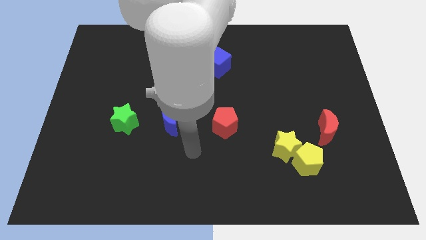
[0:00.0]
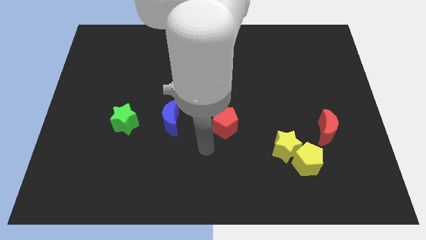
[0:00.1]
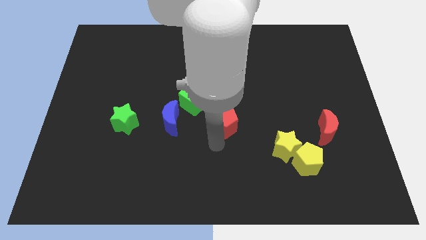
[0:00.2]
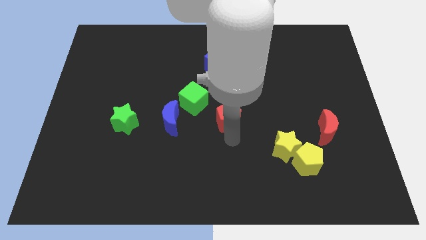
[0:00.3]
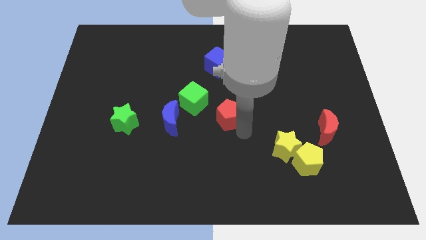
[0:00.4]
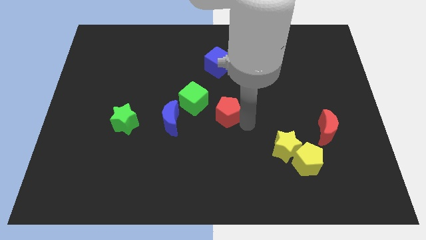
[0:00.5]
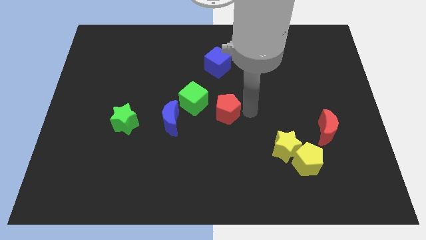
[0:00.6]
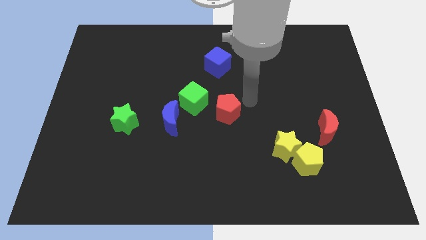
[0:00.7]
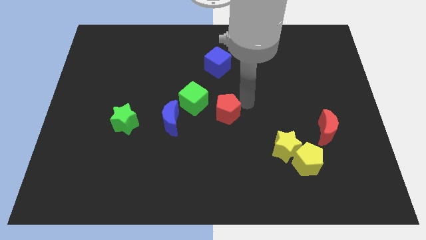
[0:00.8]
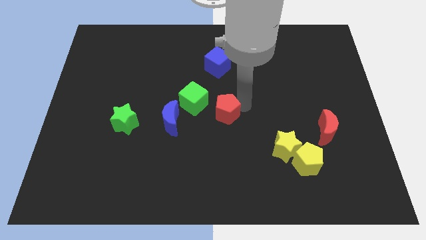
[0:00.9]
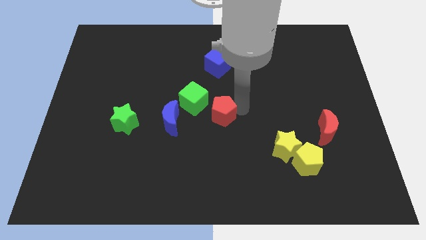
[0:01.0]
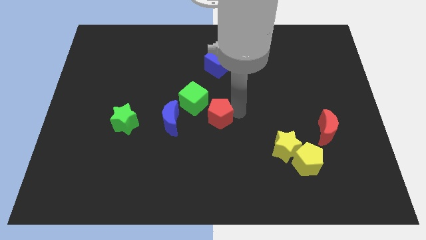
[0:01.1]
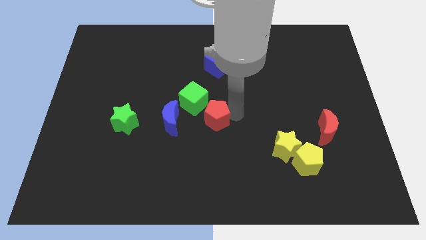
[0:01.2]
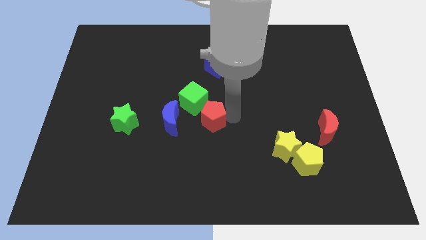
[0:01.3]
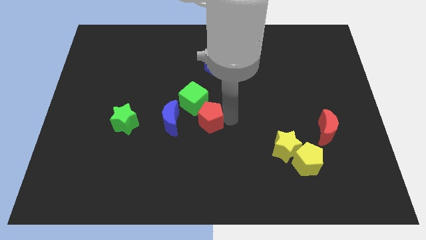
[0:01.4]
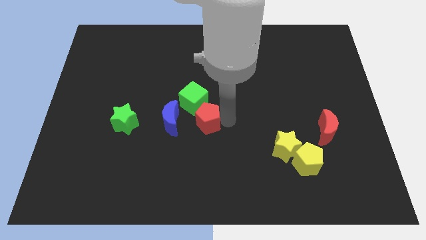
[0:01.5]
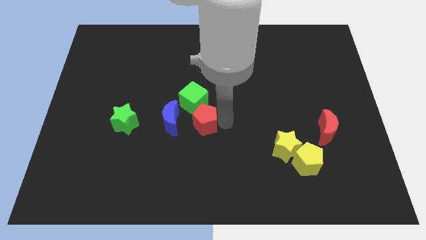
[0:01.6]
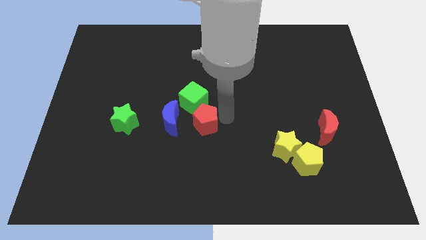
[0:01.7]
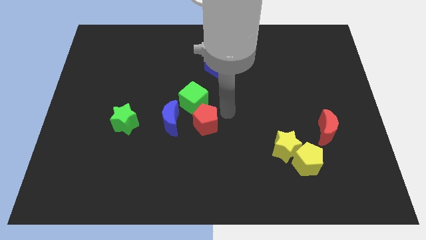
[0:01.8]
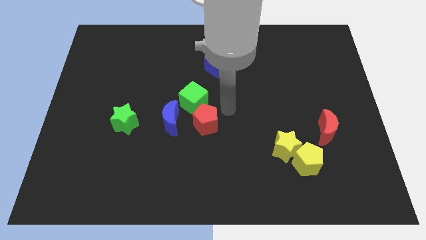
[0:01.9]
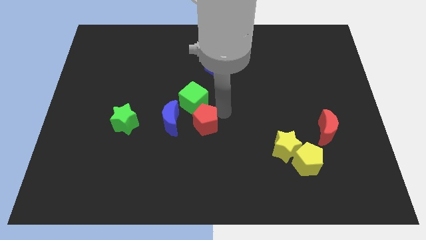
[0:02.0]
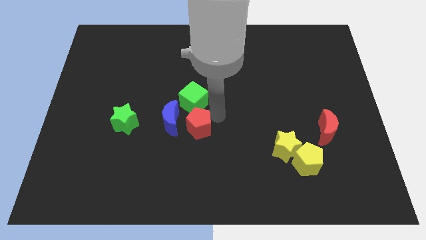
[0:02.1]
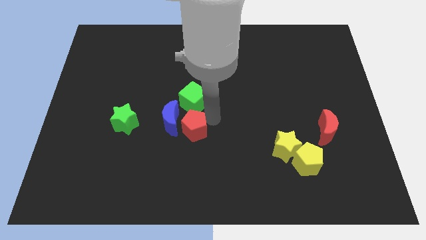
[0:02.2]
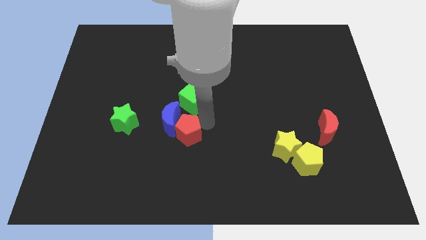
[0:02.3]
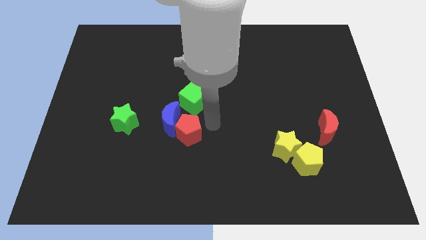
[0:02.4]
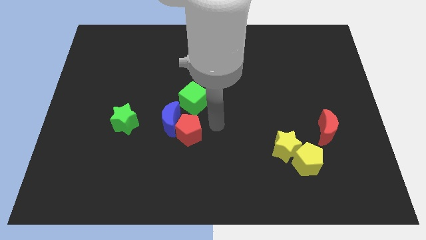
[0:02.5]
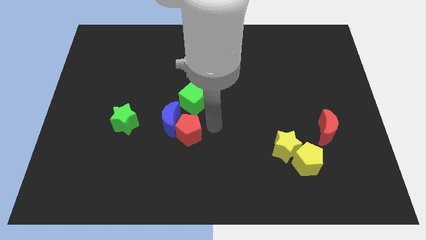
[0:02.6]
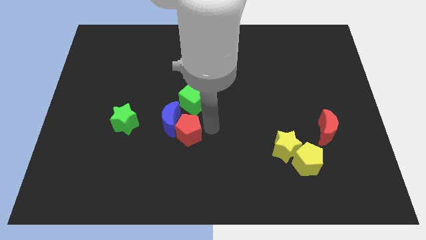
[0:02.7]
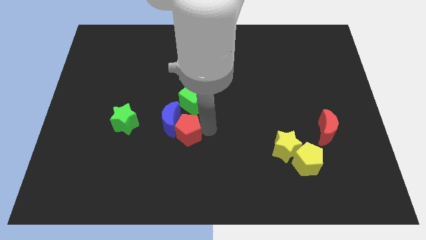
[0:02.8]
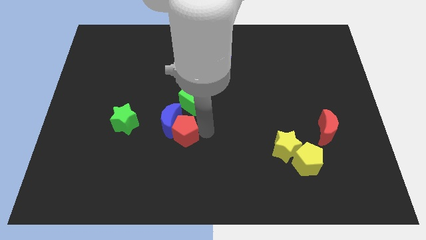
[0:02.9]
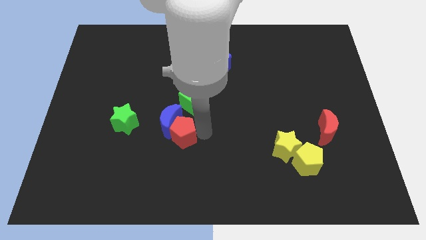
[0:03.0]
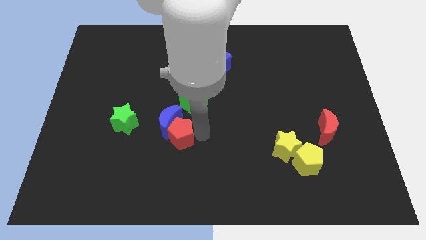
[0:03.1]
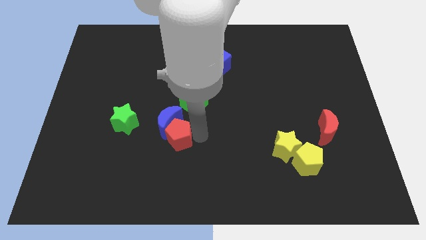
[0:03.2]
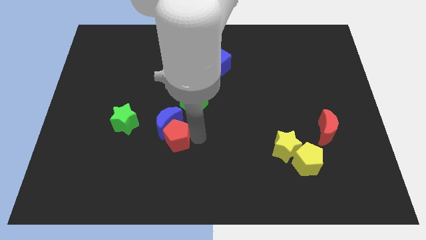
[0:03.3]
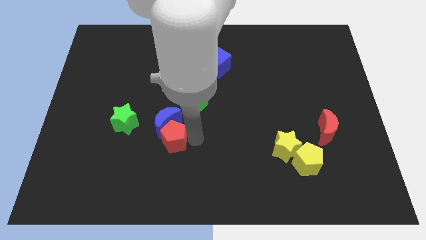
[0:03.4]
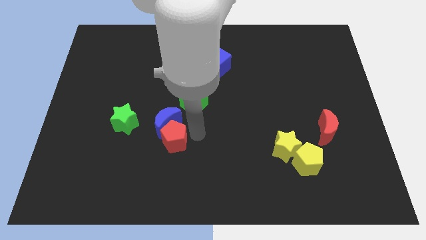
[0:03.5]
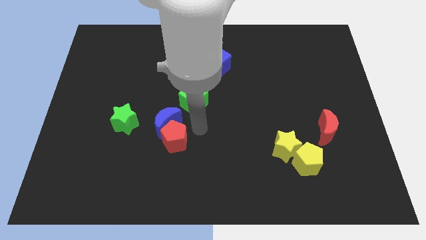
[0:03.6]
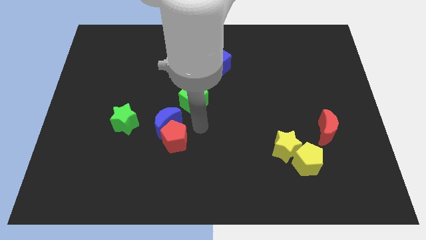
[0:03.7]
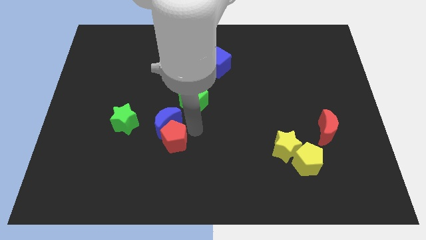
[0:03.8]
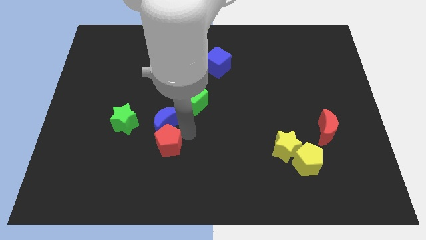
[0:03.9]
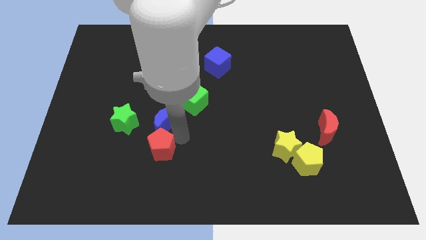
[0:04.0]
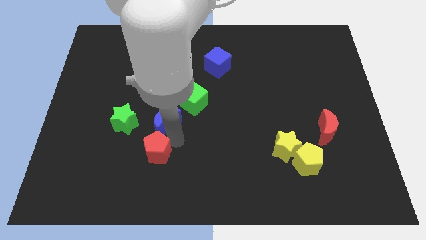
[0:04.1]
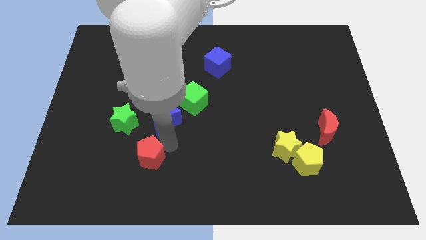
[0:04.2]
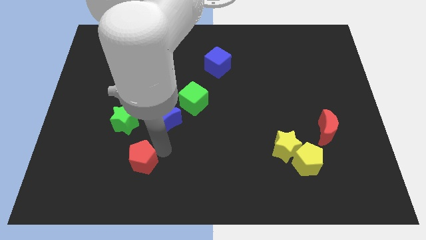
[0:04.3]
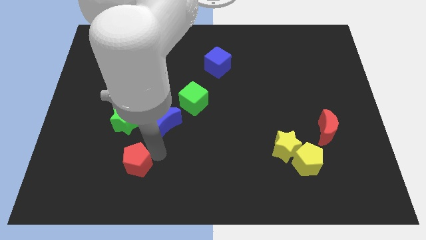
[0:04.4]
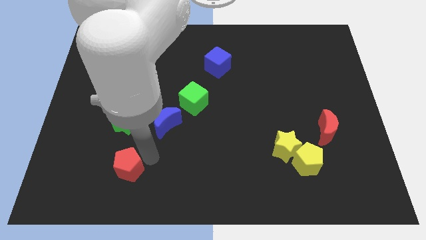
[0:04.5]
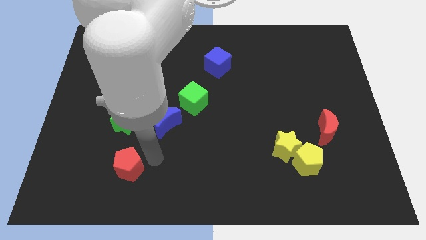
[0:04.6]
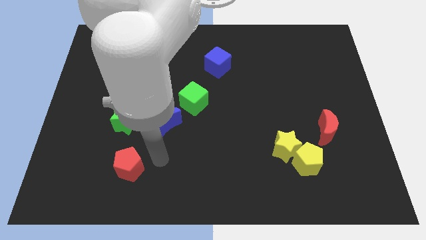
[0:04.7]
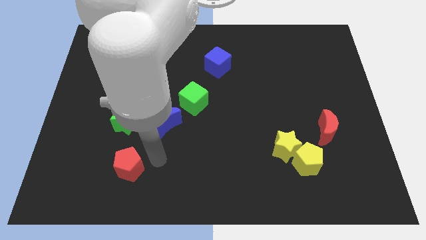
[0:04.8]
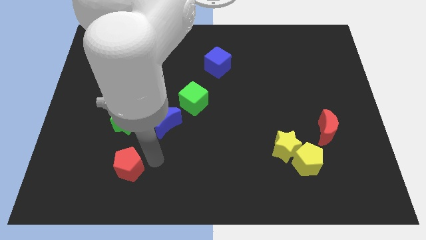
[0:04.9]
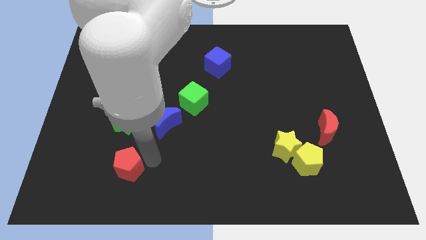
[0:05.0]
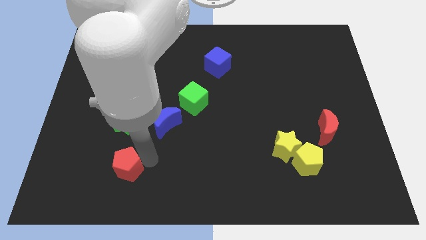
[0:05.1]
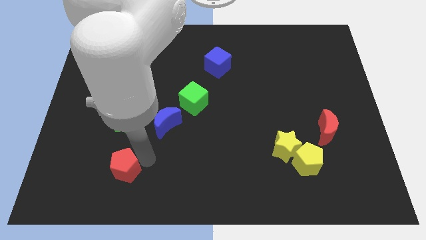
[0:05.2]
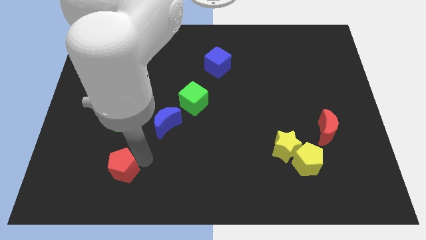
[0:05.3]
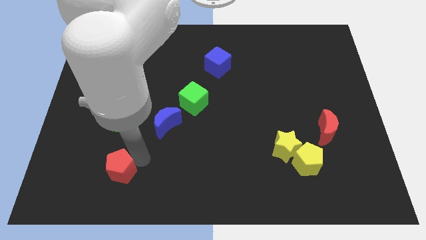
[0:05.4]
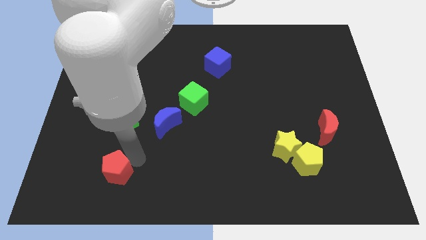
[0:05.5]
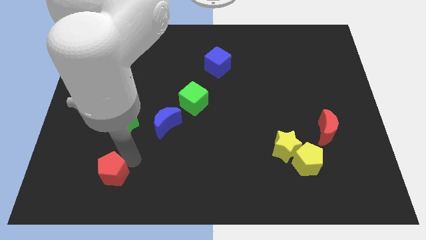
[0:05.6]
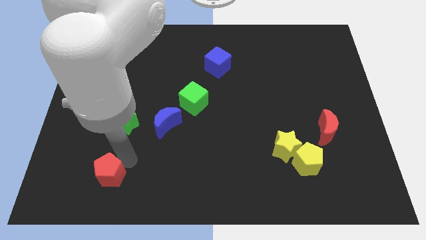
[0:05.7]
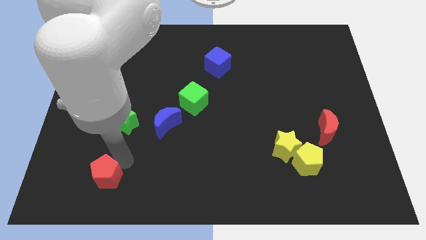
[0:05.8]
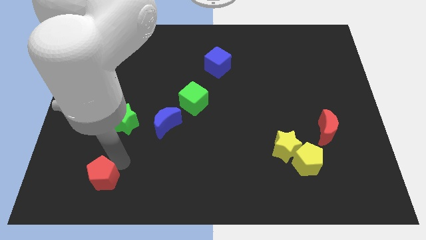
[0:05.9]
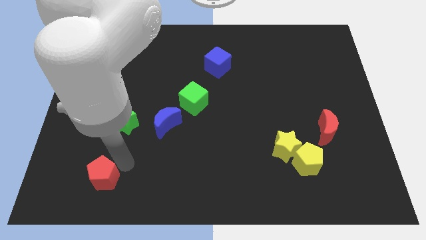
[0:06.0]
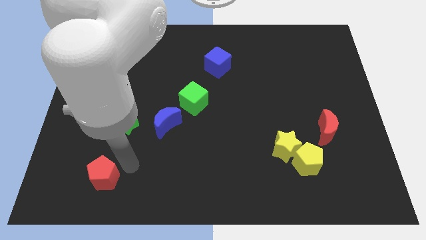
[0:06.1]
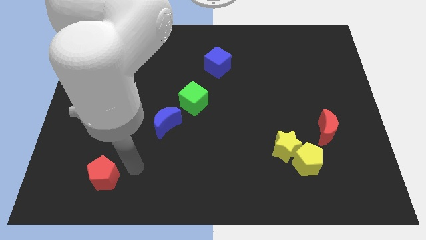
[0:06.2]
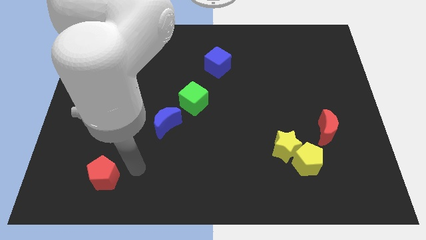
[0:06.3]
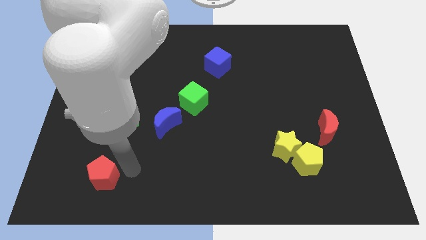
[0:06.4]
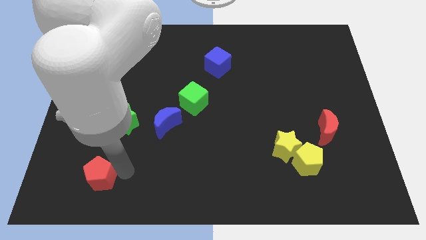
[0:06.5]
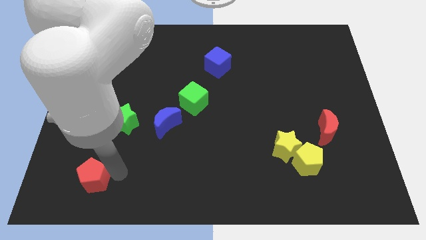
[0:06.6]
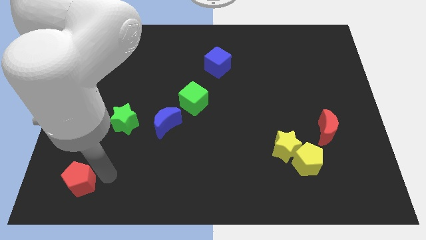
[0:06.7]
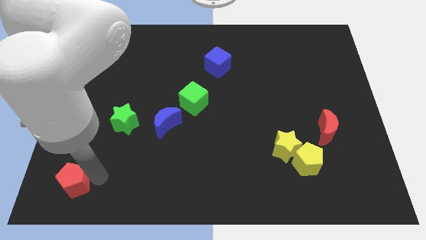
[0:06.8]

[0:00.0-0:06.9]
move the red pentagon to the bottom left of the board
